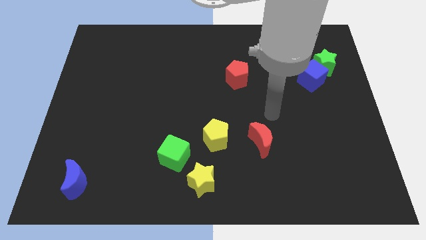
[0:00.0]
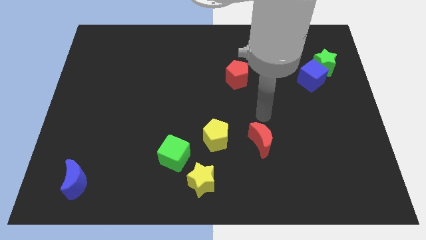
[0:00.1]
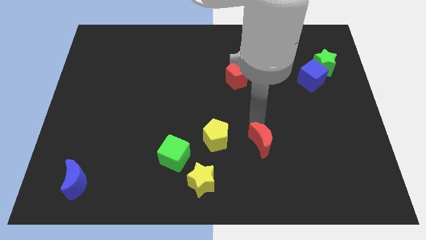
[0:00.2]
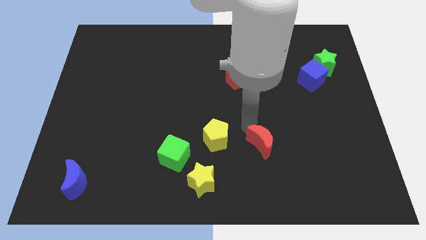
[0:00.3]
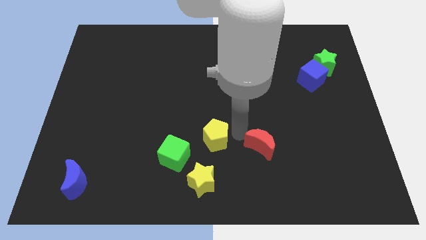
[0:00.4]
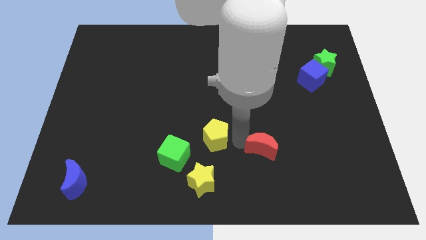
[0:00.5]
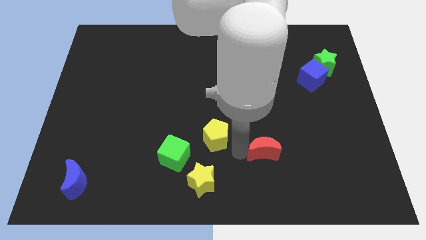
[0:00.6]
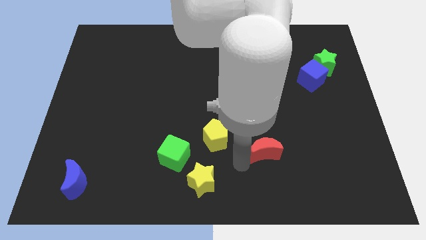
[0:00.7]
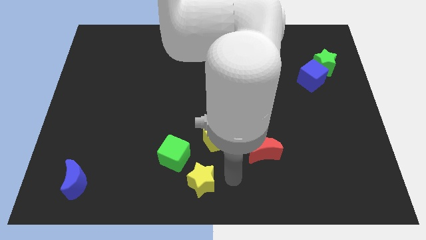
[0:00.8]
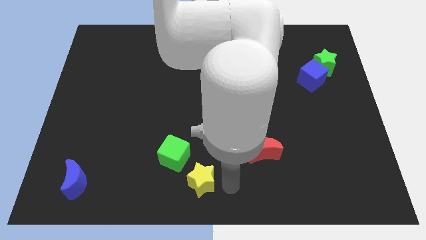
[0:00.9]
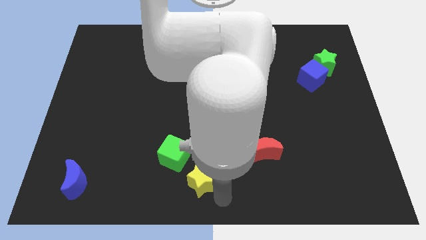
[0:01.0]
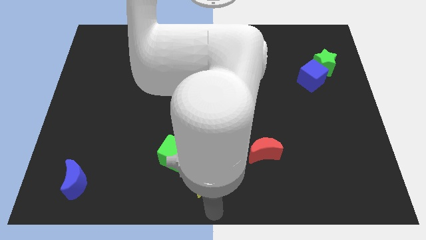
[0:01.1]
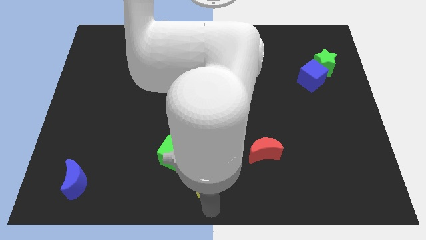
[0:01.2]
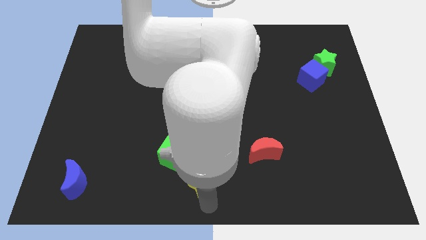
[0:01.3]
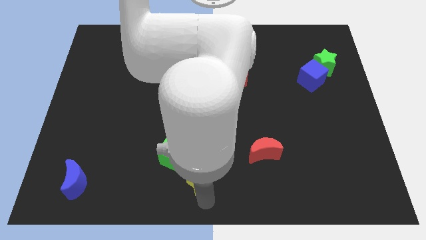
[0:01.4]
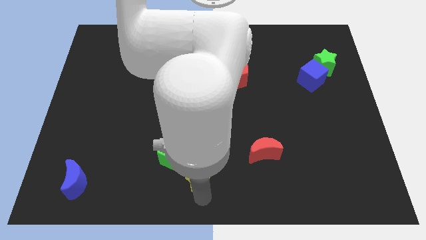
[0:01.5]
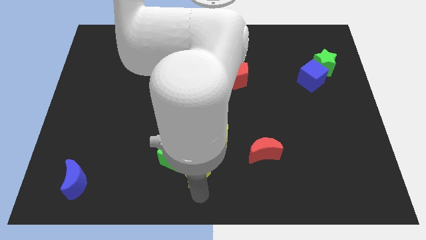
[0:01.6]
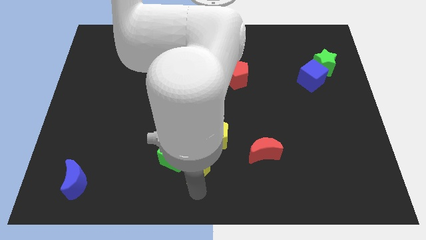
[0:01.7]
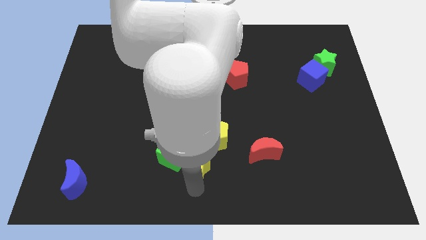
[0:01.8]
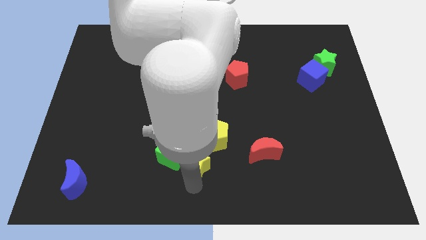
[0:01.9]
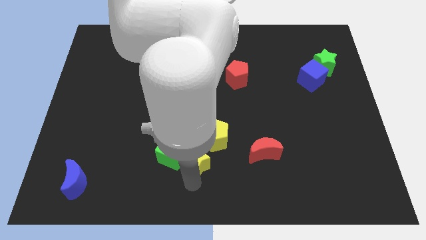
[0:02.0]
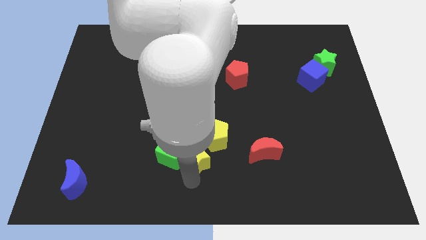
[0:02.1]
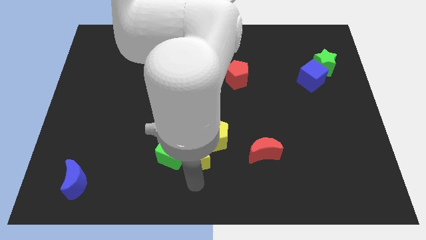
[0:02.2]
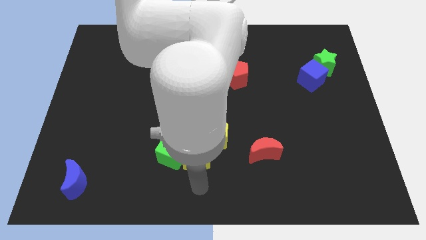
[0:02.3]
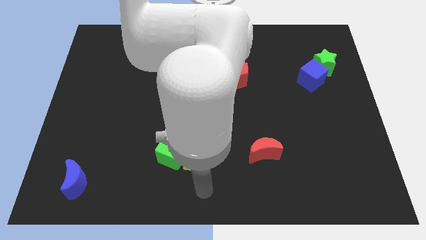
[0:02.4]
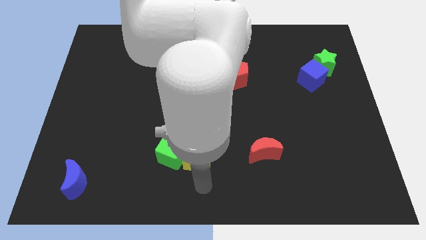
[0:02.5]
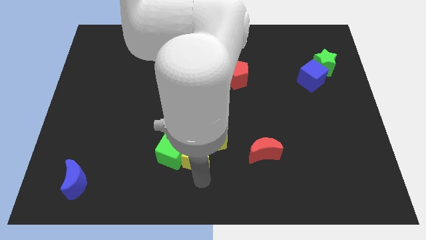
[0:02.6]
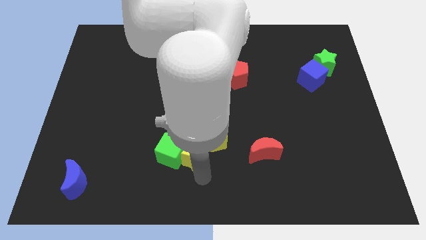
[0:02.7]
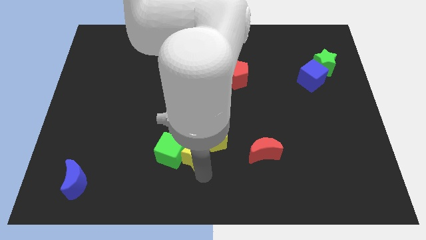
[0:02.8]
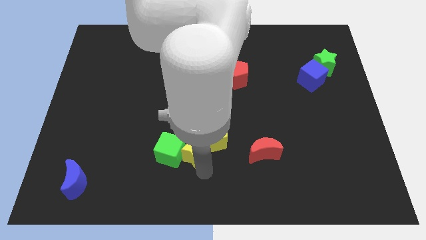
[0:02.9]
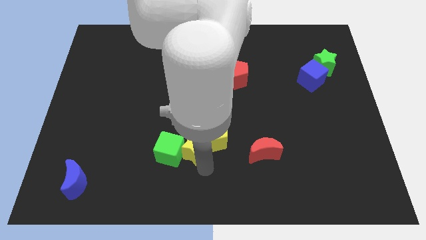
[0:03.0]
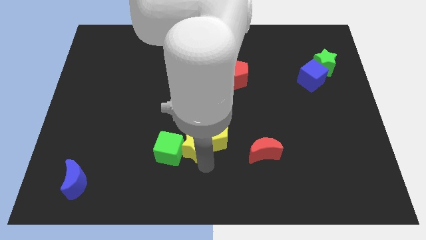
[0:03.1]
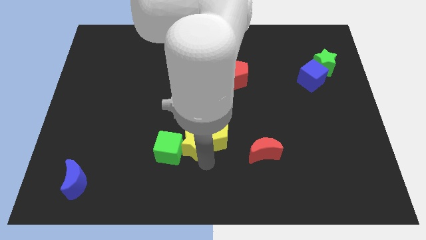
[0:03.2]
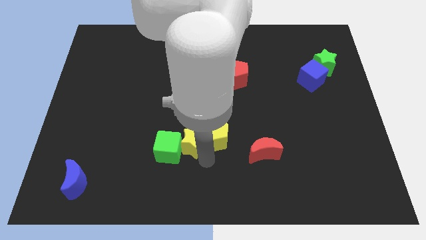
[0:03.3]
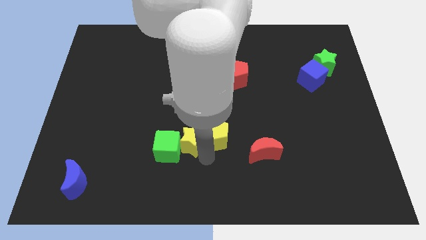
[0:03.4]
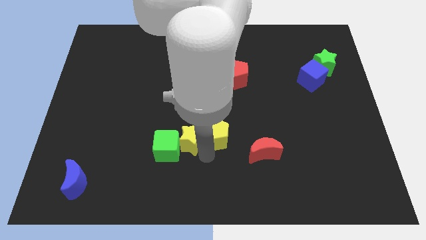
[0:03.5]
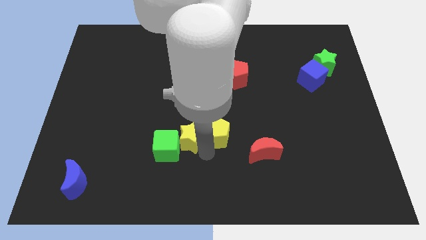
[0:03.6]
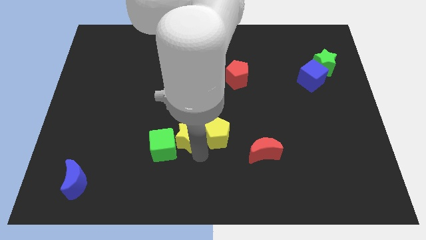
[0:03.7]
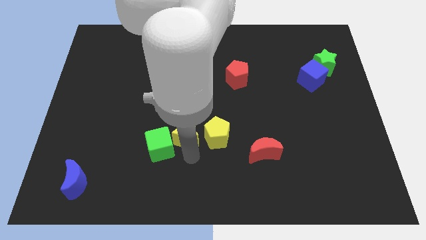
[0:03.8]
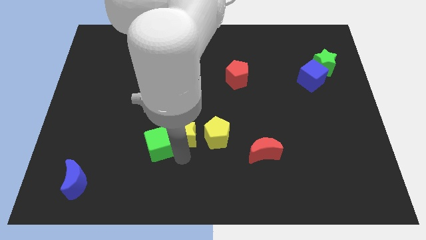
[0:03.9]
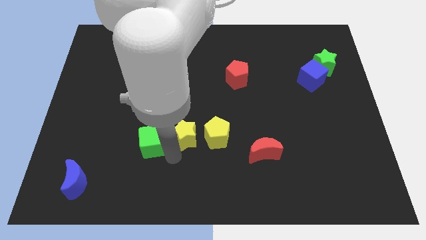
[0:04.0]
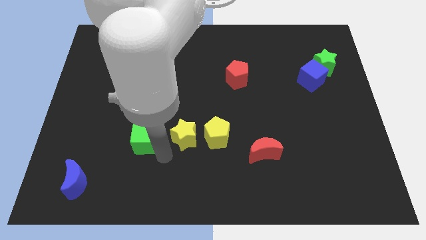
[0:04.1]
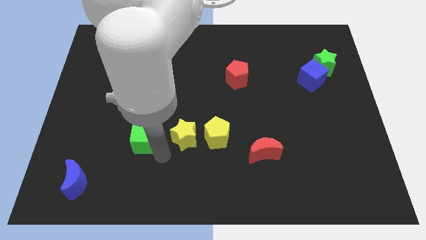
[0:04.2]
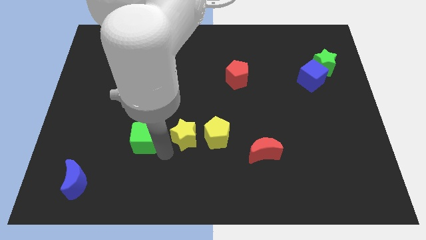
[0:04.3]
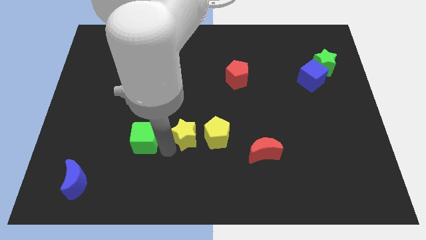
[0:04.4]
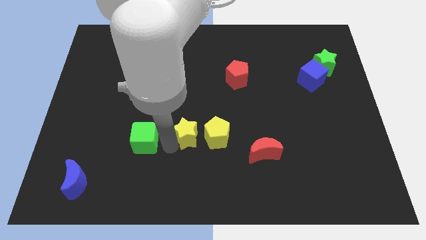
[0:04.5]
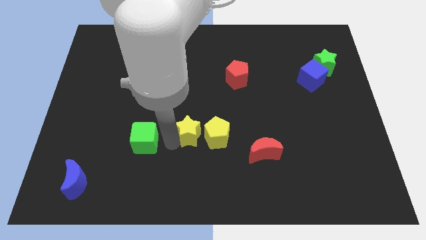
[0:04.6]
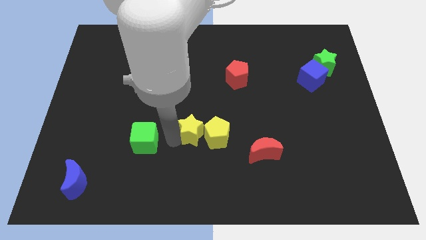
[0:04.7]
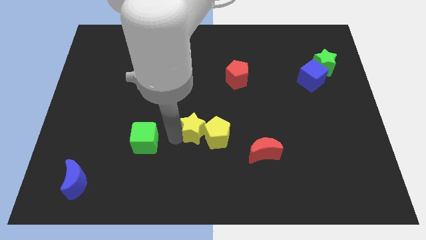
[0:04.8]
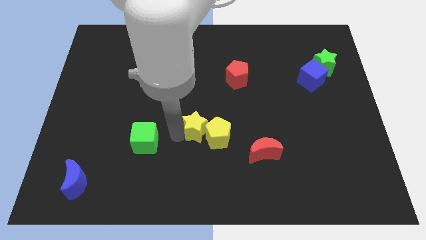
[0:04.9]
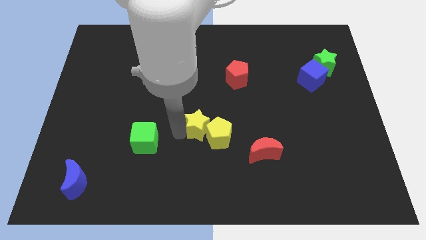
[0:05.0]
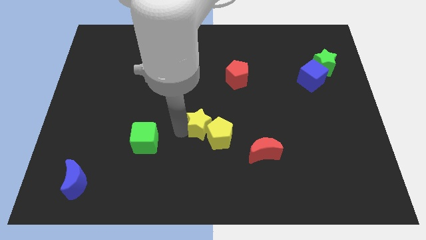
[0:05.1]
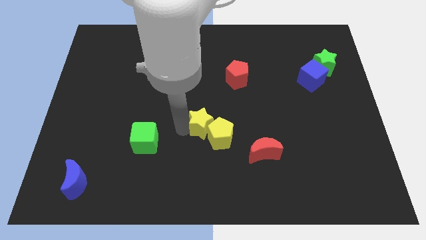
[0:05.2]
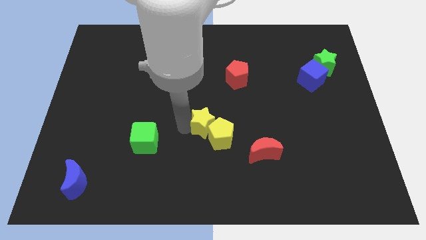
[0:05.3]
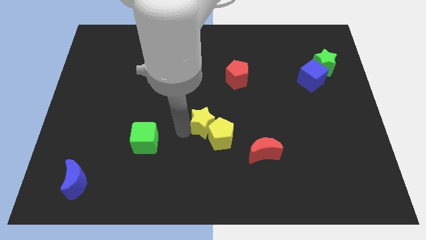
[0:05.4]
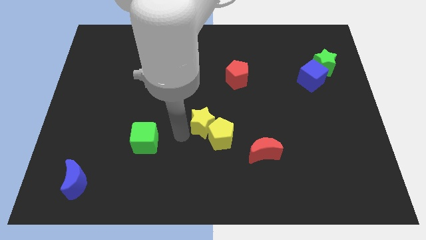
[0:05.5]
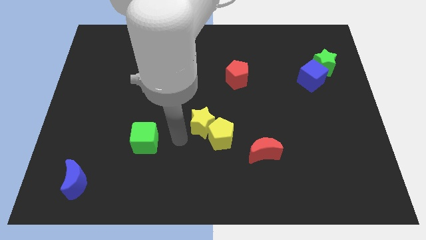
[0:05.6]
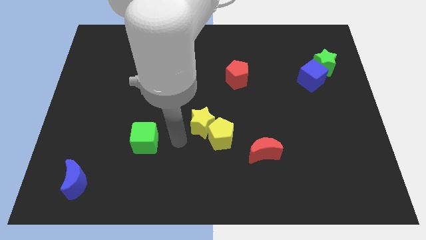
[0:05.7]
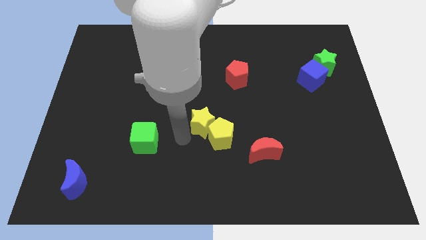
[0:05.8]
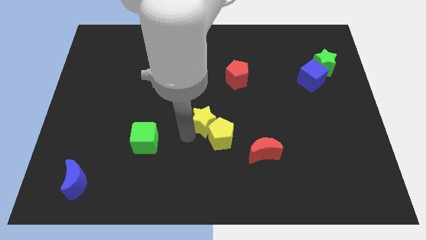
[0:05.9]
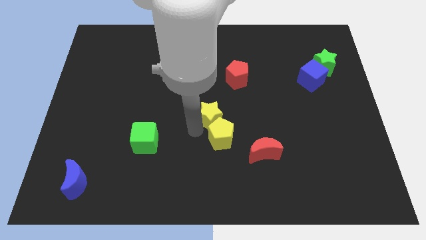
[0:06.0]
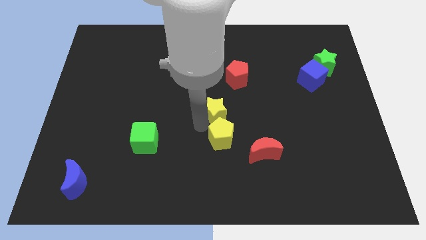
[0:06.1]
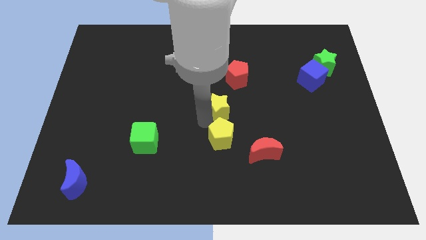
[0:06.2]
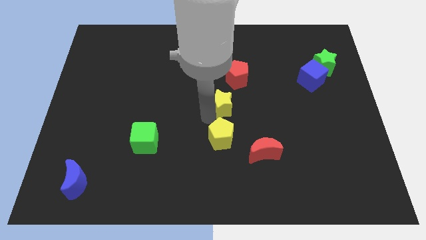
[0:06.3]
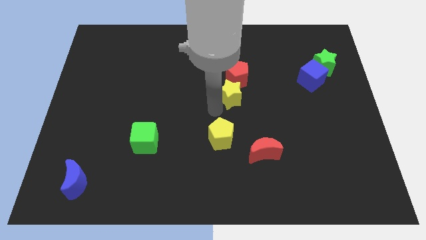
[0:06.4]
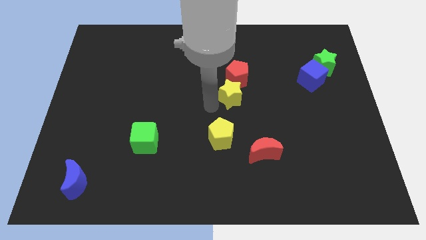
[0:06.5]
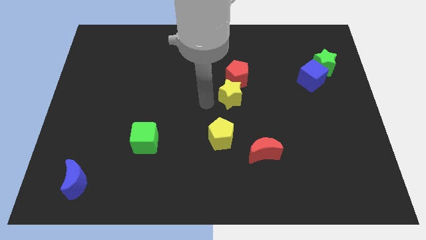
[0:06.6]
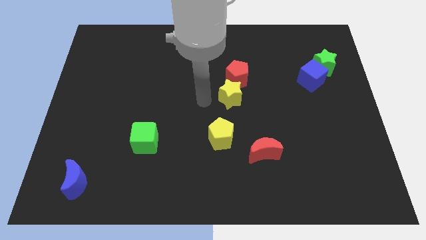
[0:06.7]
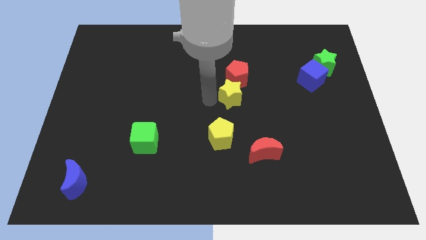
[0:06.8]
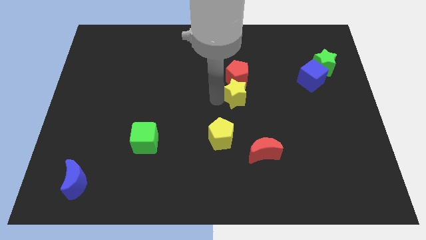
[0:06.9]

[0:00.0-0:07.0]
put the yellow star diagonally down and to the right of the red pentagon

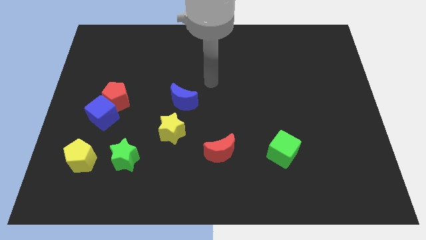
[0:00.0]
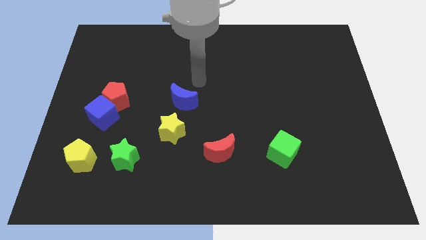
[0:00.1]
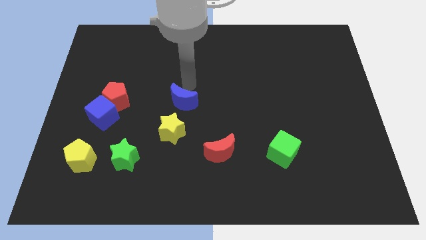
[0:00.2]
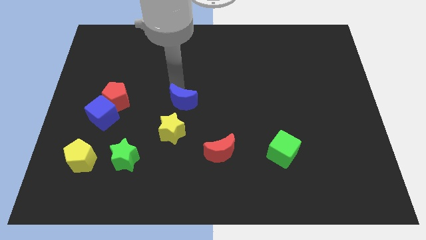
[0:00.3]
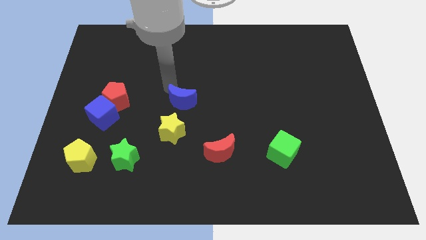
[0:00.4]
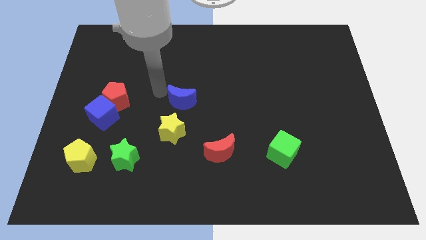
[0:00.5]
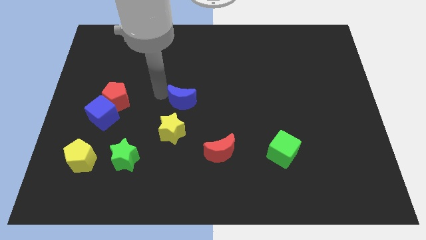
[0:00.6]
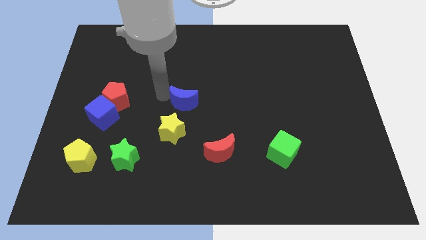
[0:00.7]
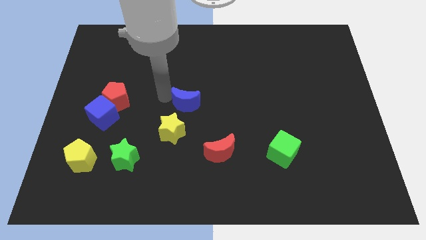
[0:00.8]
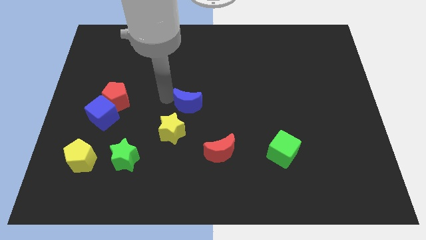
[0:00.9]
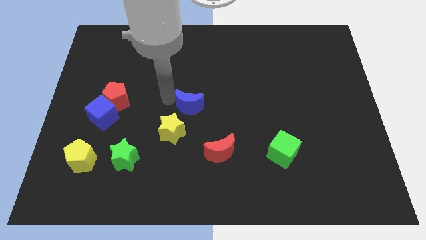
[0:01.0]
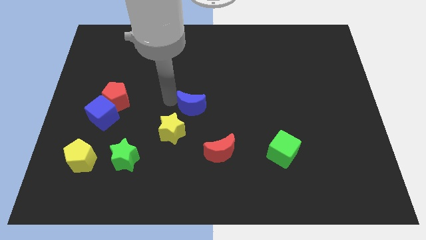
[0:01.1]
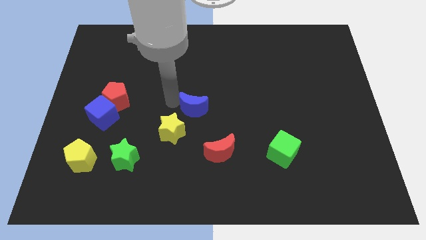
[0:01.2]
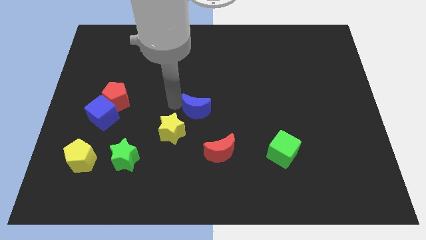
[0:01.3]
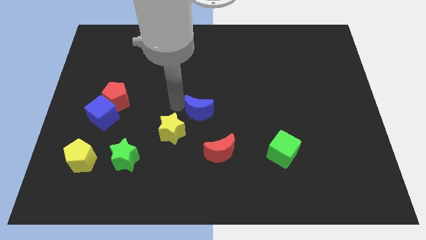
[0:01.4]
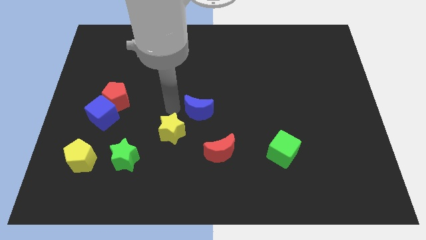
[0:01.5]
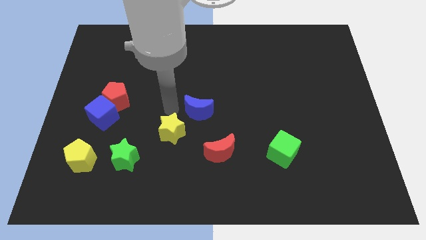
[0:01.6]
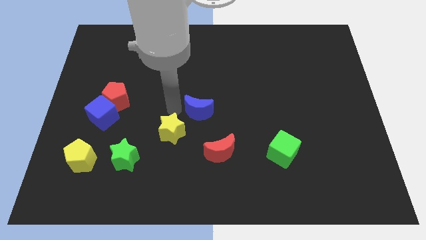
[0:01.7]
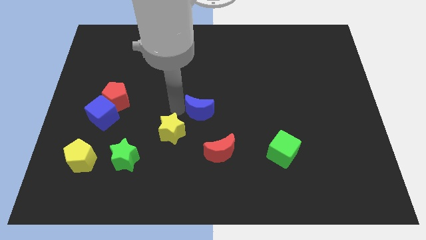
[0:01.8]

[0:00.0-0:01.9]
push the blue moon to the top side of the red moon
